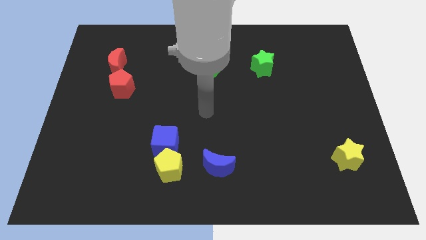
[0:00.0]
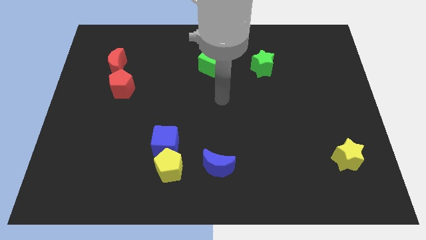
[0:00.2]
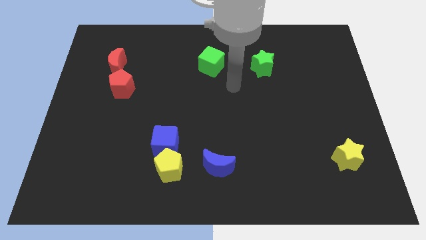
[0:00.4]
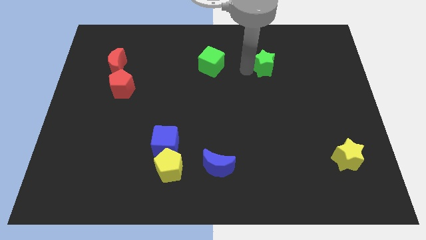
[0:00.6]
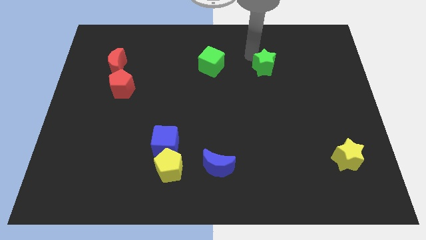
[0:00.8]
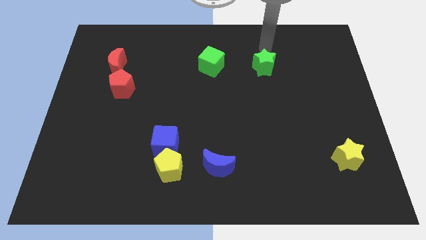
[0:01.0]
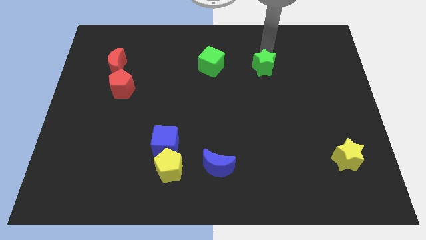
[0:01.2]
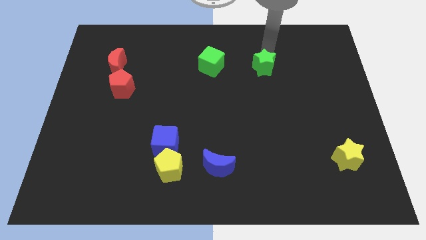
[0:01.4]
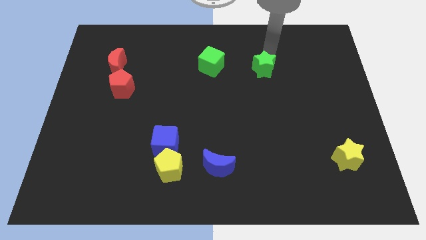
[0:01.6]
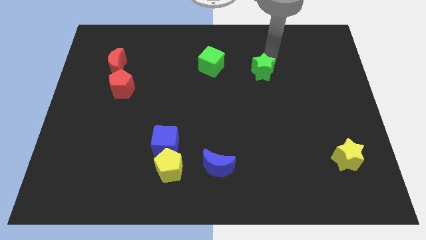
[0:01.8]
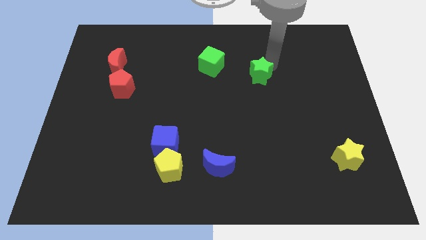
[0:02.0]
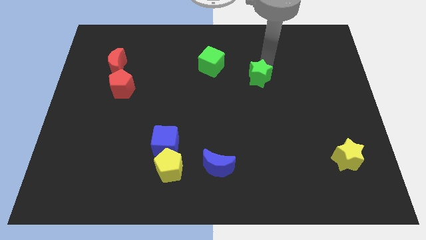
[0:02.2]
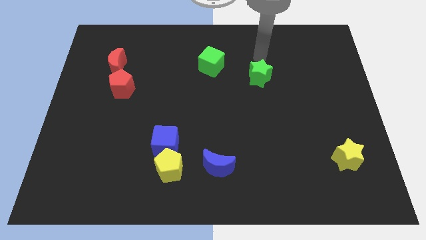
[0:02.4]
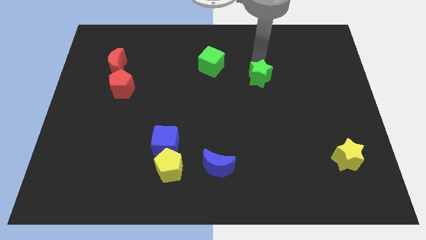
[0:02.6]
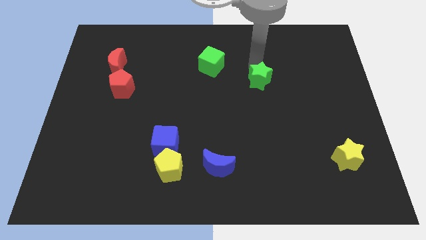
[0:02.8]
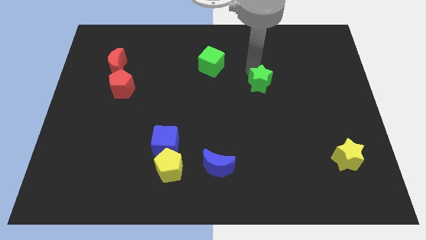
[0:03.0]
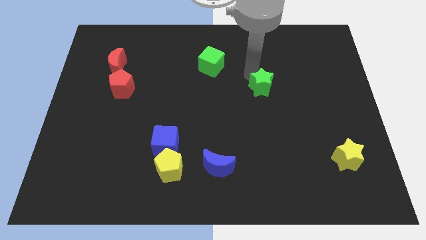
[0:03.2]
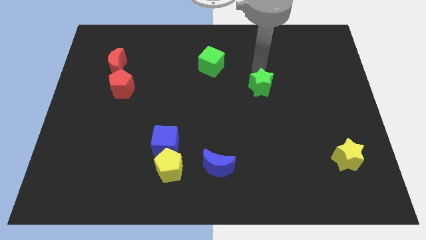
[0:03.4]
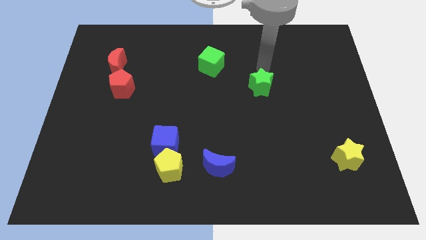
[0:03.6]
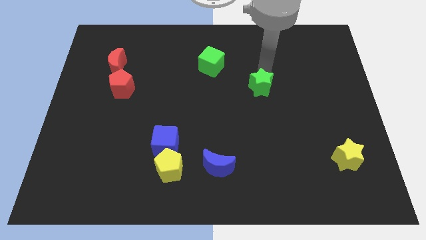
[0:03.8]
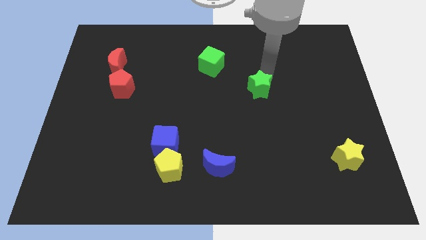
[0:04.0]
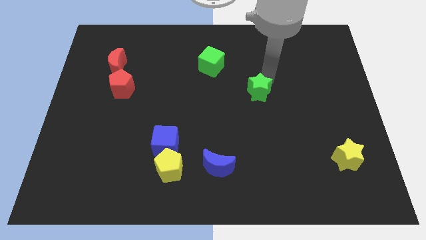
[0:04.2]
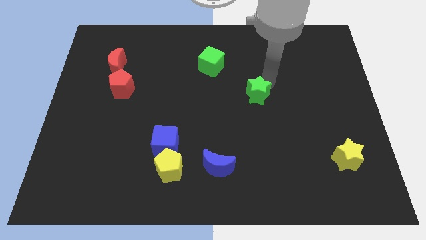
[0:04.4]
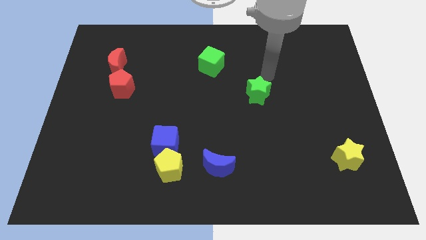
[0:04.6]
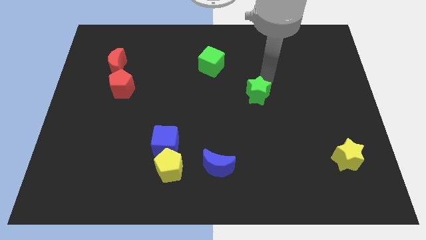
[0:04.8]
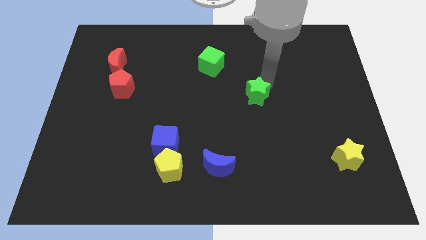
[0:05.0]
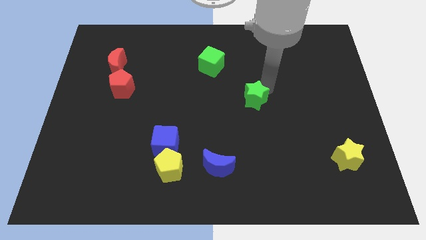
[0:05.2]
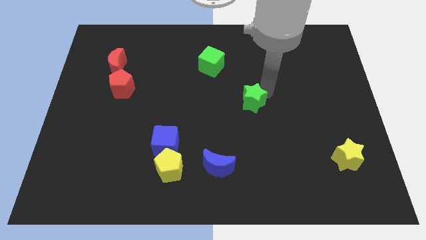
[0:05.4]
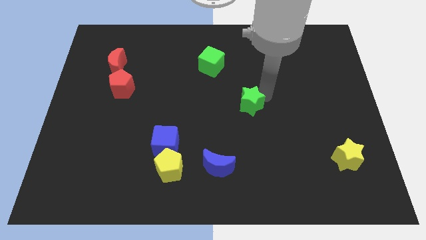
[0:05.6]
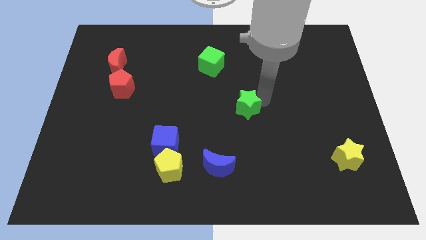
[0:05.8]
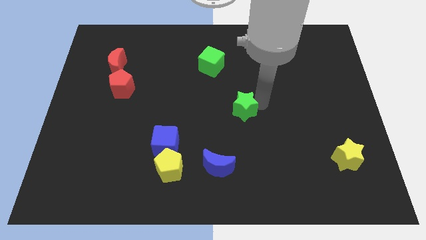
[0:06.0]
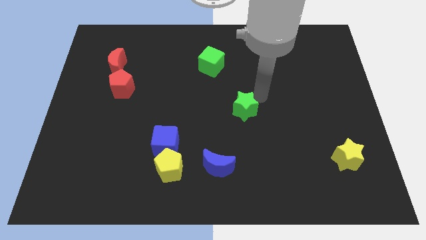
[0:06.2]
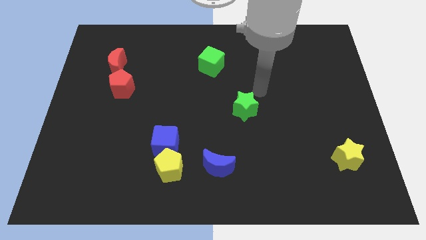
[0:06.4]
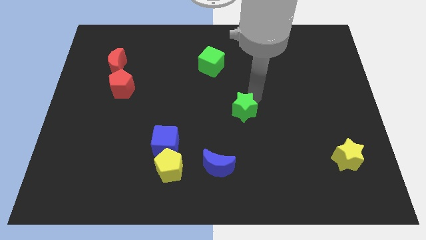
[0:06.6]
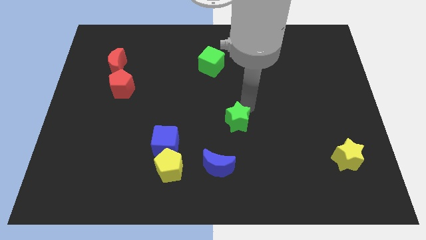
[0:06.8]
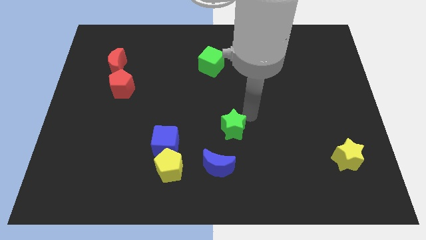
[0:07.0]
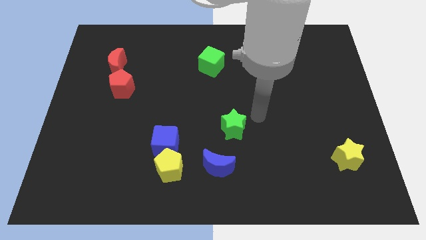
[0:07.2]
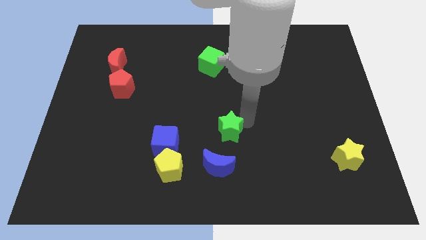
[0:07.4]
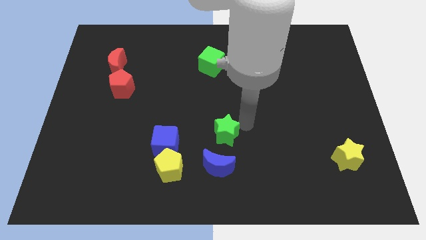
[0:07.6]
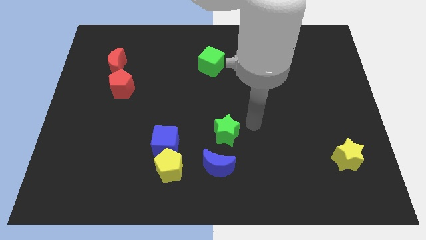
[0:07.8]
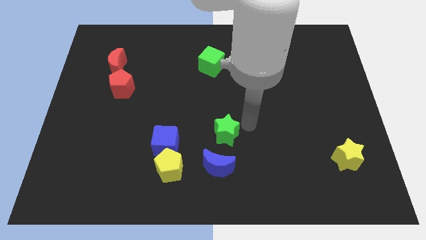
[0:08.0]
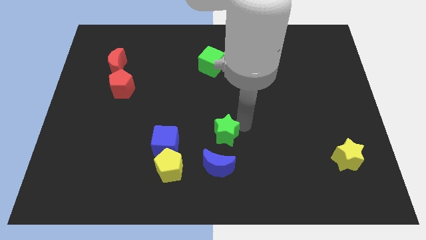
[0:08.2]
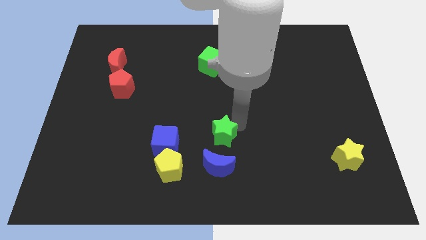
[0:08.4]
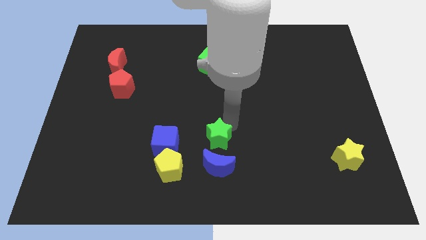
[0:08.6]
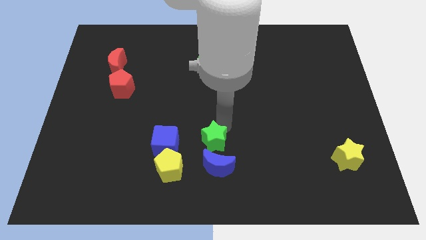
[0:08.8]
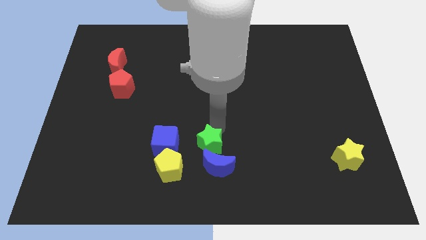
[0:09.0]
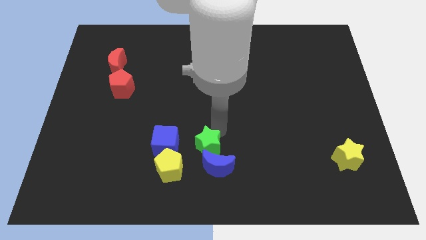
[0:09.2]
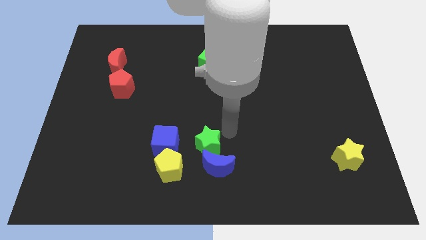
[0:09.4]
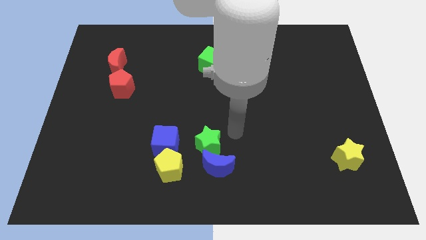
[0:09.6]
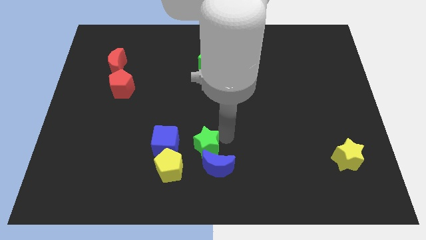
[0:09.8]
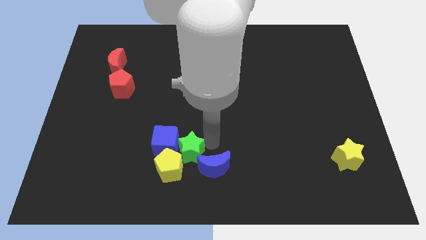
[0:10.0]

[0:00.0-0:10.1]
move the green star next to the yellow pentagon

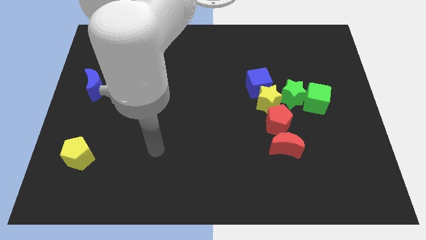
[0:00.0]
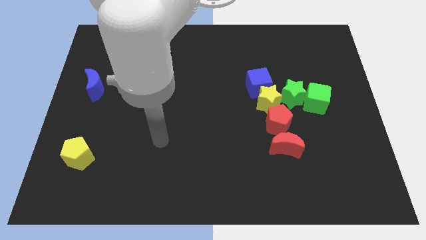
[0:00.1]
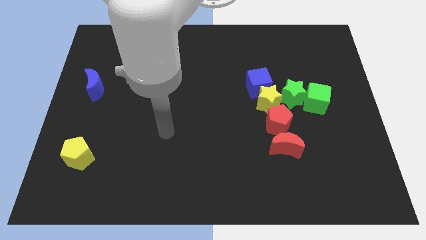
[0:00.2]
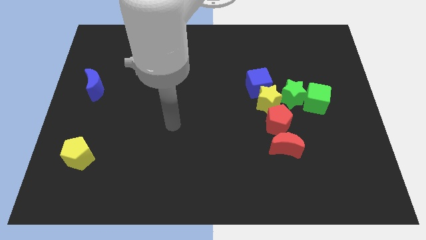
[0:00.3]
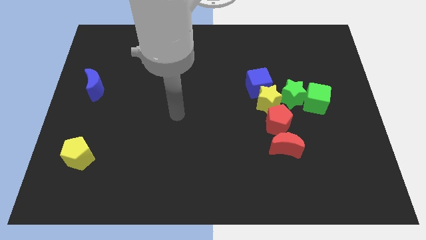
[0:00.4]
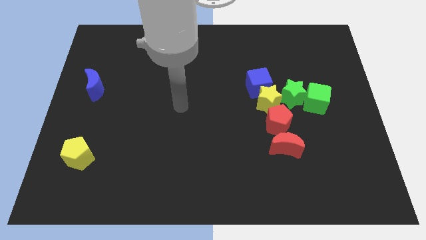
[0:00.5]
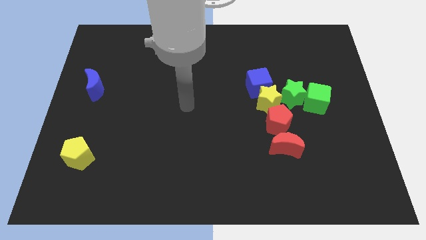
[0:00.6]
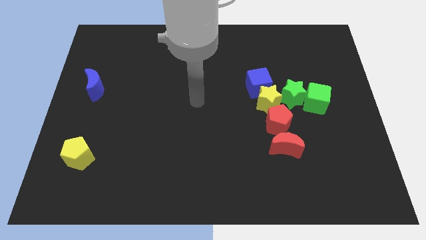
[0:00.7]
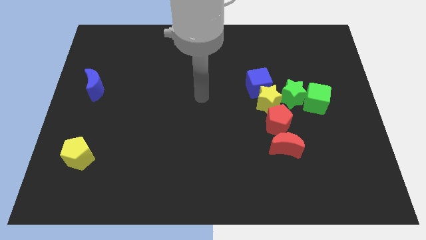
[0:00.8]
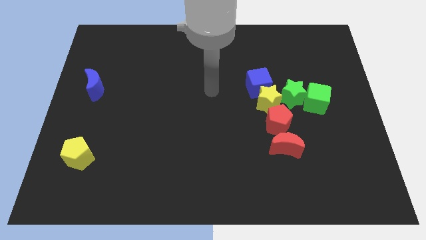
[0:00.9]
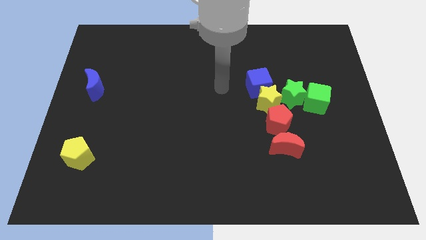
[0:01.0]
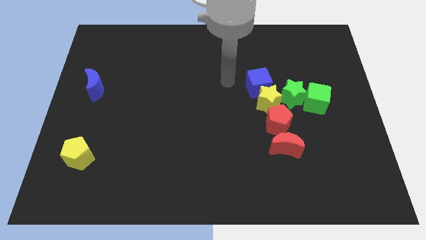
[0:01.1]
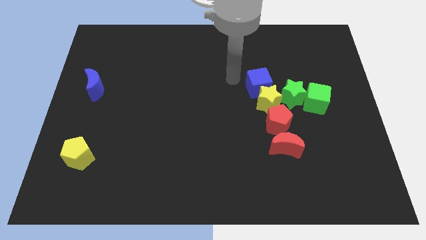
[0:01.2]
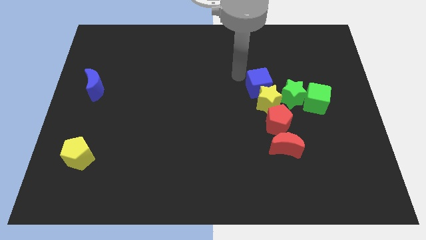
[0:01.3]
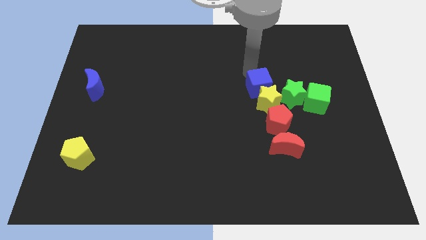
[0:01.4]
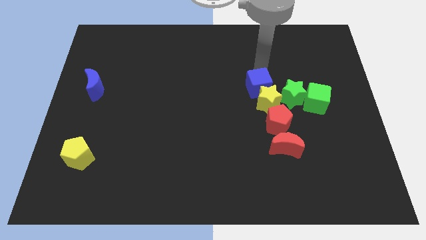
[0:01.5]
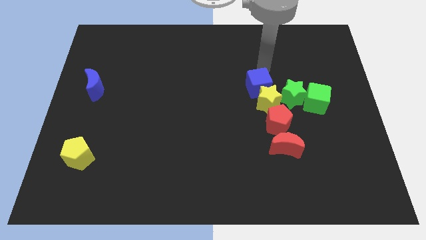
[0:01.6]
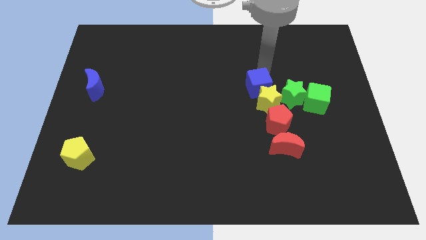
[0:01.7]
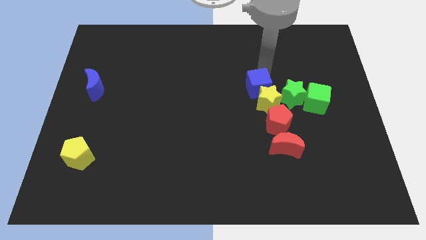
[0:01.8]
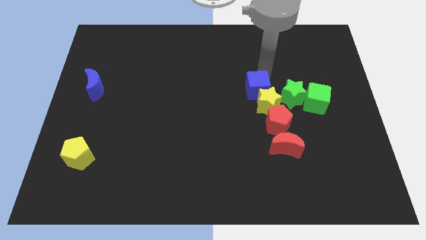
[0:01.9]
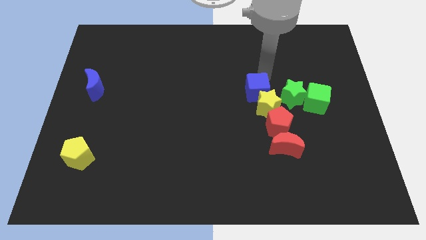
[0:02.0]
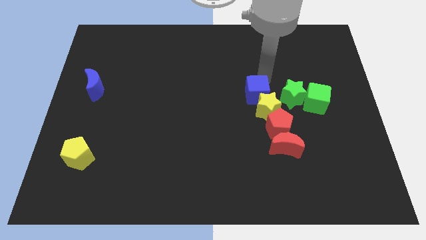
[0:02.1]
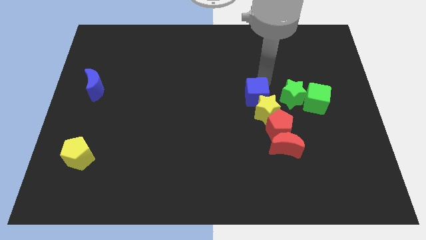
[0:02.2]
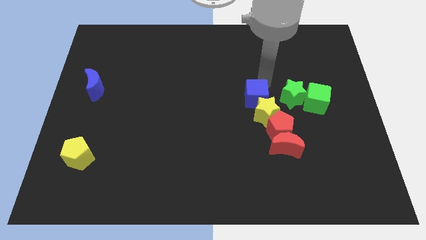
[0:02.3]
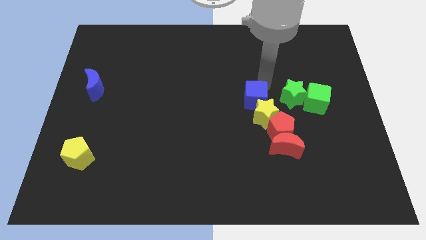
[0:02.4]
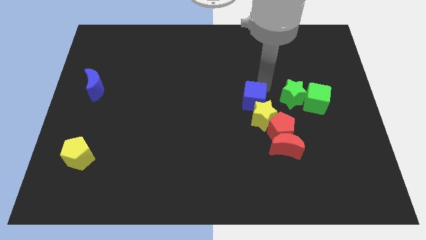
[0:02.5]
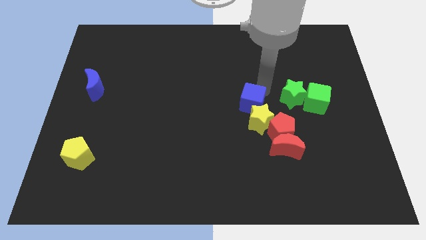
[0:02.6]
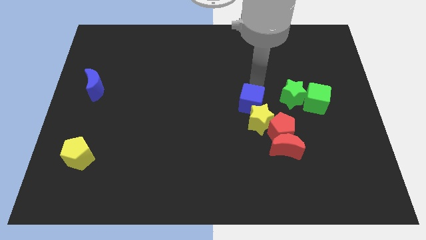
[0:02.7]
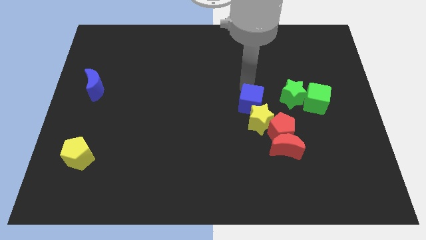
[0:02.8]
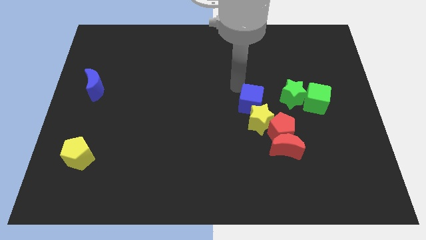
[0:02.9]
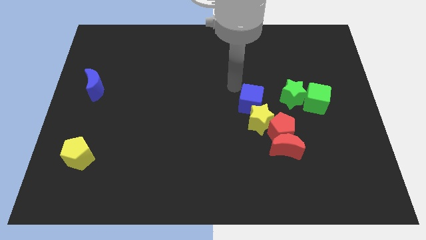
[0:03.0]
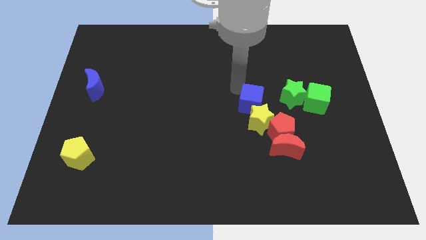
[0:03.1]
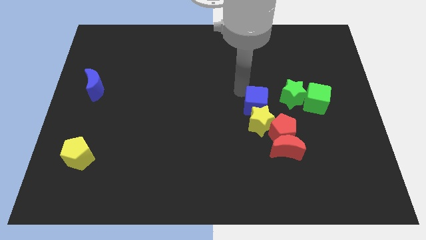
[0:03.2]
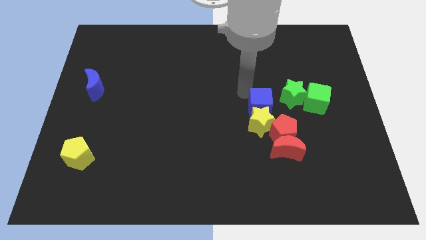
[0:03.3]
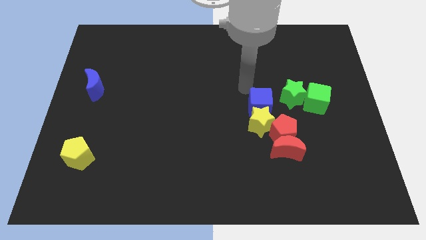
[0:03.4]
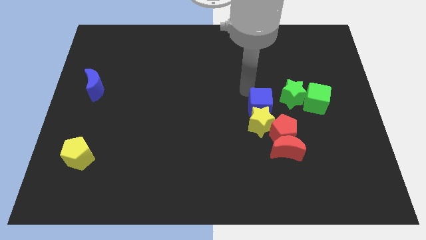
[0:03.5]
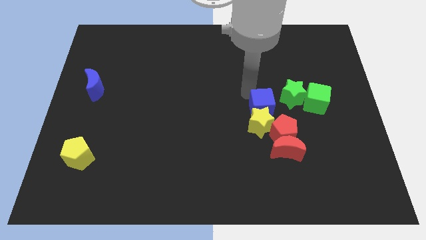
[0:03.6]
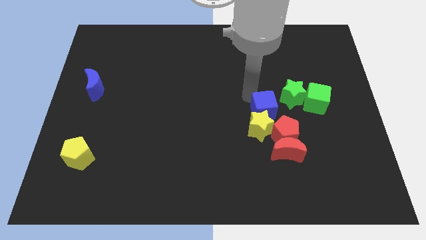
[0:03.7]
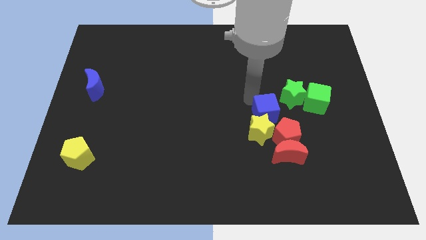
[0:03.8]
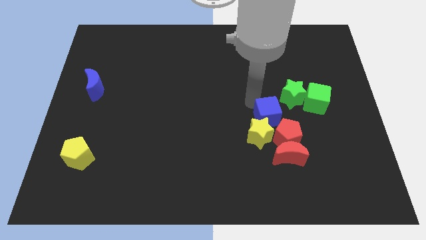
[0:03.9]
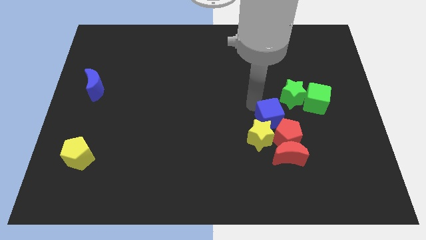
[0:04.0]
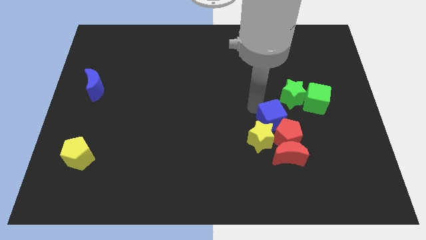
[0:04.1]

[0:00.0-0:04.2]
put the blue cube towards the red pentagon
